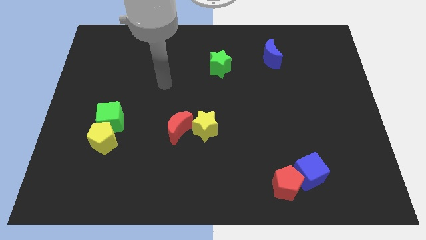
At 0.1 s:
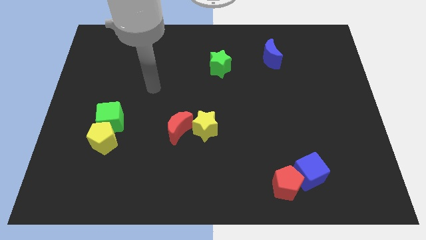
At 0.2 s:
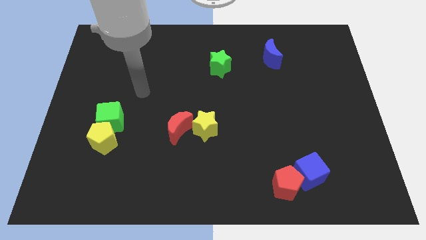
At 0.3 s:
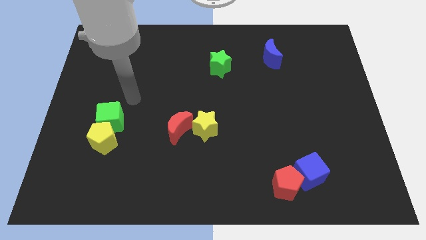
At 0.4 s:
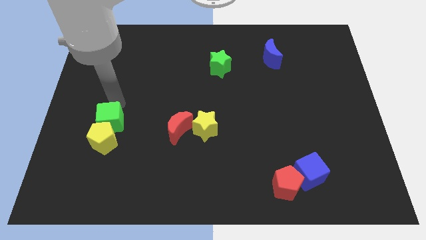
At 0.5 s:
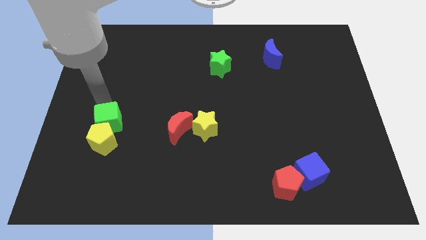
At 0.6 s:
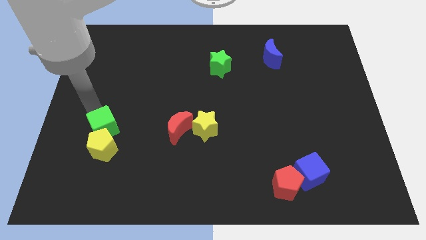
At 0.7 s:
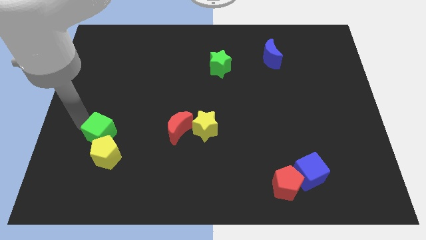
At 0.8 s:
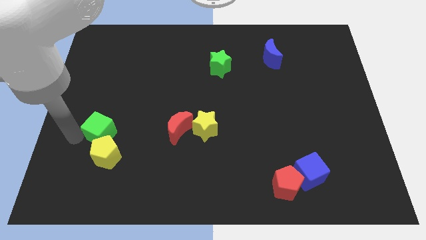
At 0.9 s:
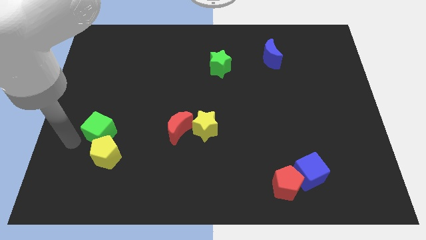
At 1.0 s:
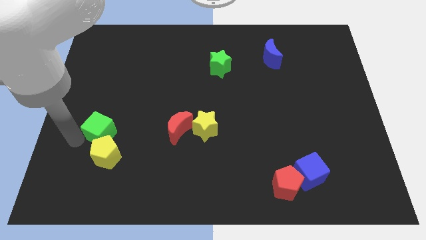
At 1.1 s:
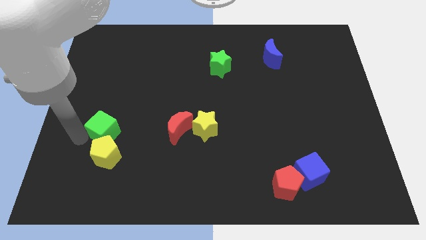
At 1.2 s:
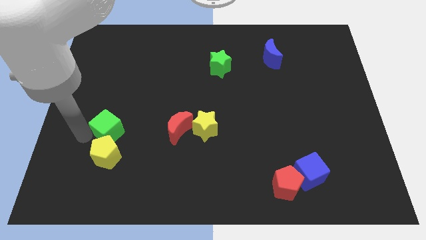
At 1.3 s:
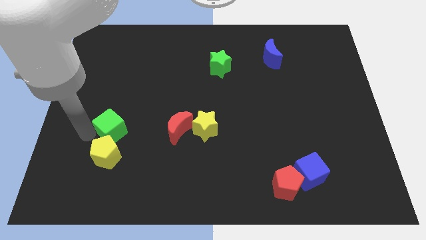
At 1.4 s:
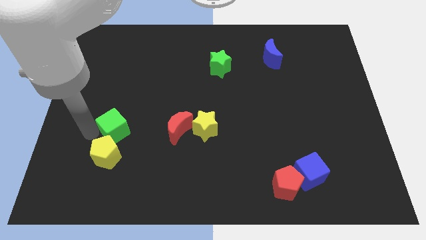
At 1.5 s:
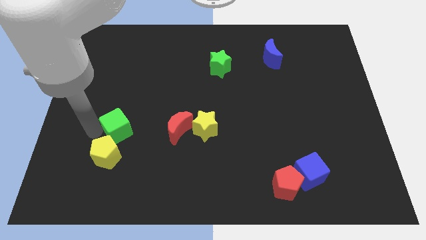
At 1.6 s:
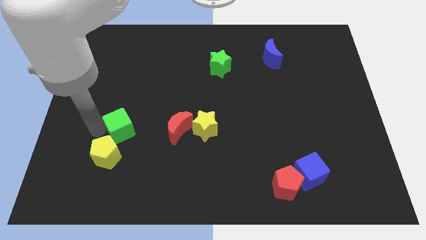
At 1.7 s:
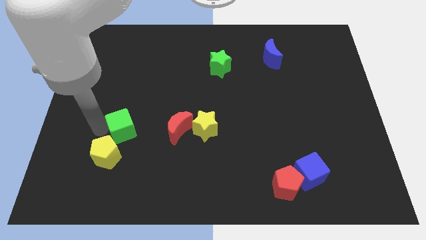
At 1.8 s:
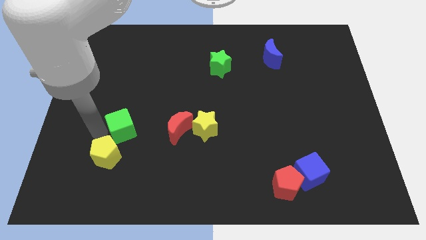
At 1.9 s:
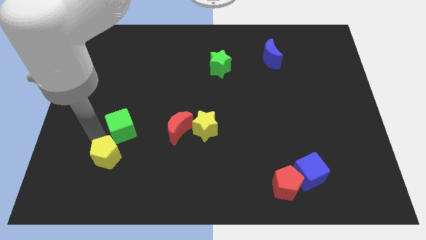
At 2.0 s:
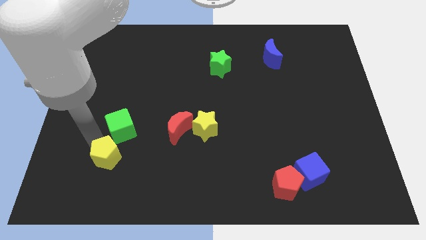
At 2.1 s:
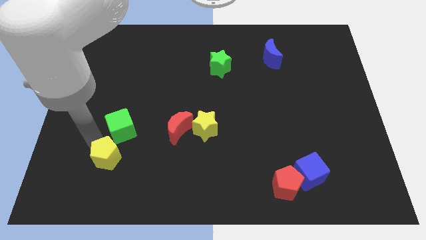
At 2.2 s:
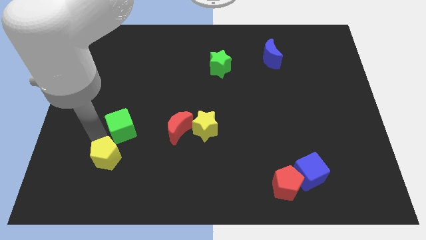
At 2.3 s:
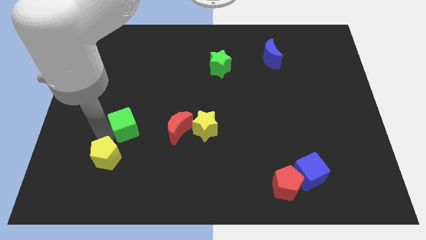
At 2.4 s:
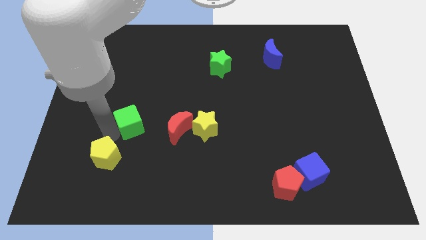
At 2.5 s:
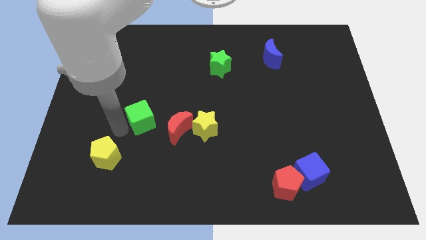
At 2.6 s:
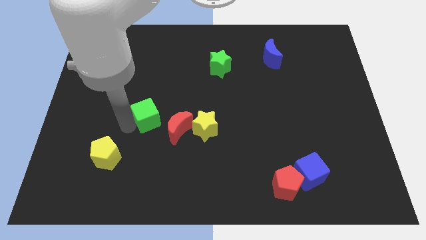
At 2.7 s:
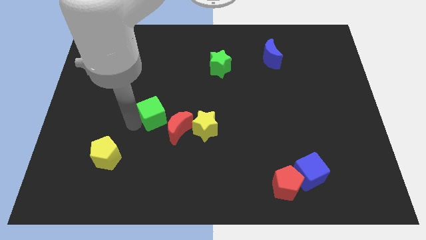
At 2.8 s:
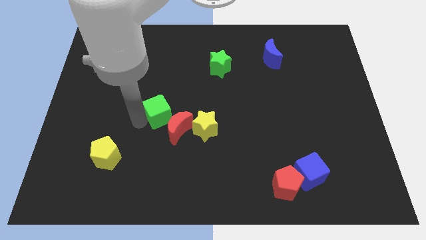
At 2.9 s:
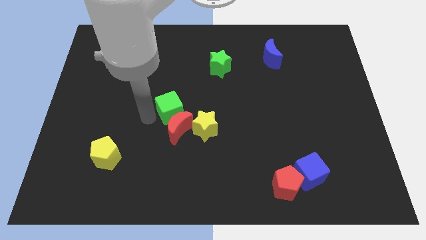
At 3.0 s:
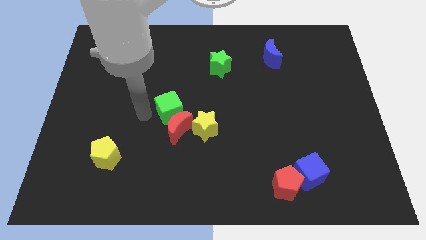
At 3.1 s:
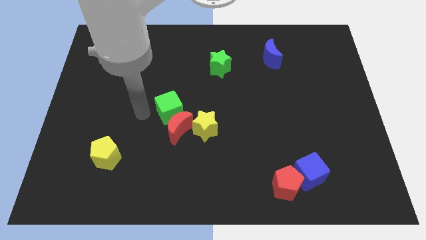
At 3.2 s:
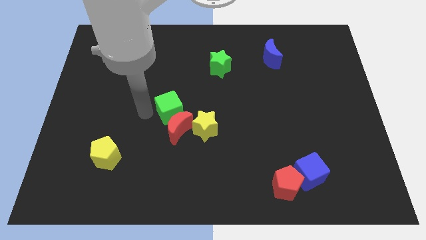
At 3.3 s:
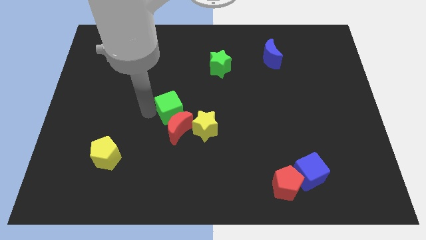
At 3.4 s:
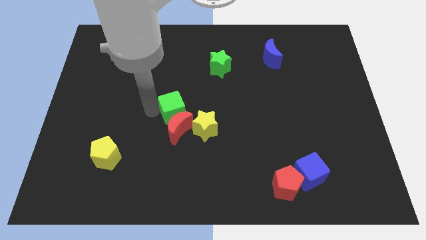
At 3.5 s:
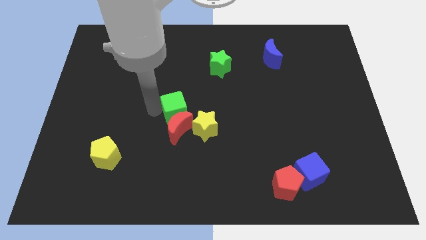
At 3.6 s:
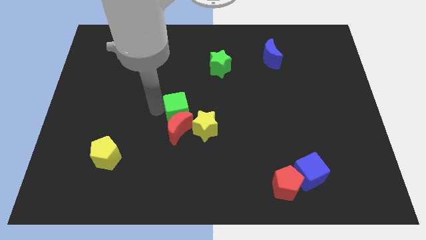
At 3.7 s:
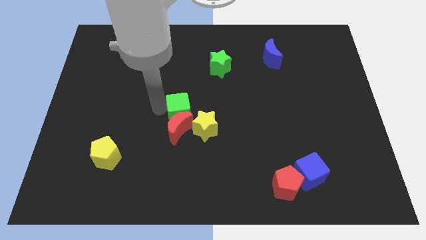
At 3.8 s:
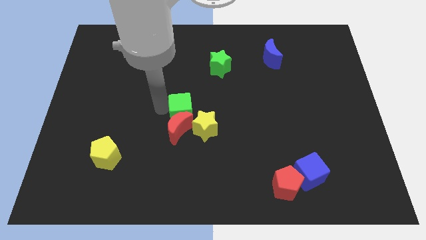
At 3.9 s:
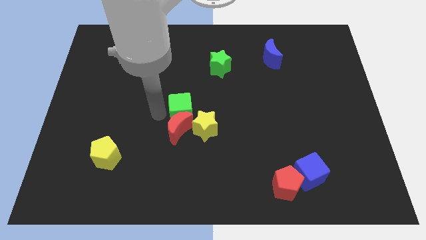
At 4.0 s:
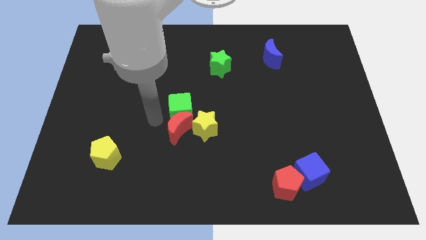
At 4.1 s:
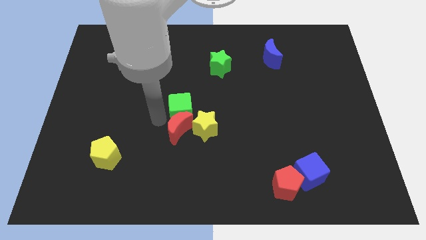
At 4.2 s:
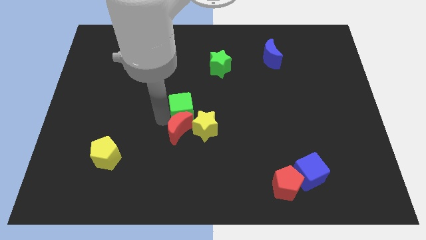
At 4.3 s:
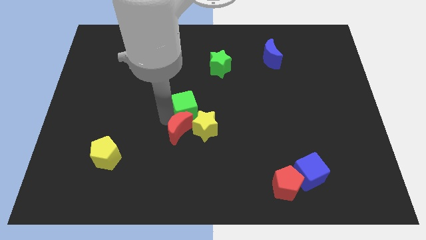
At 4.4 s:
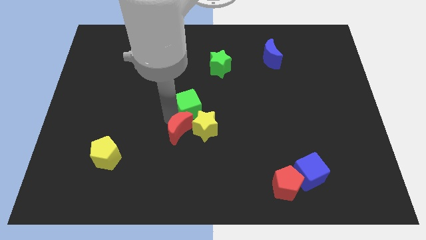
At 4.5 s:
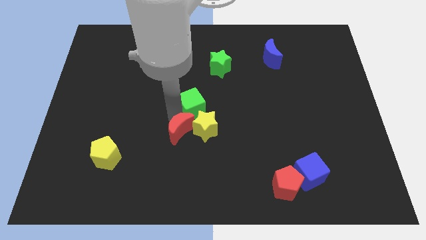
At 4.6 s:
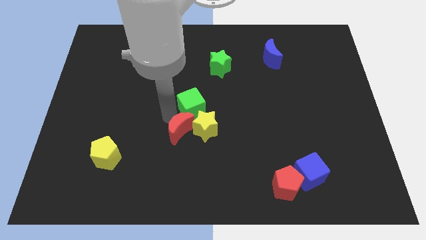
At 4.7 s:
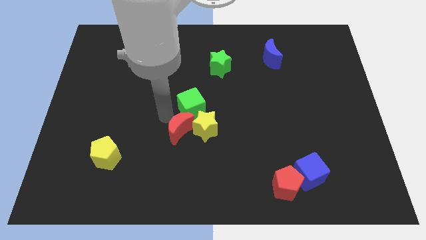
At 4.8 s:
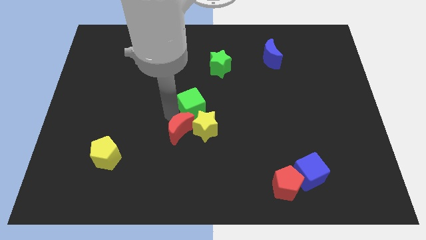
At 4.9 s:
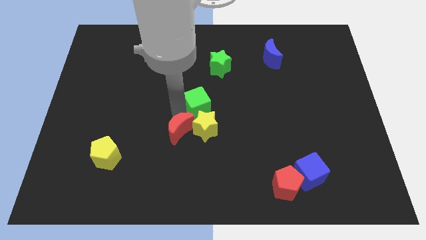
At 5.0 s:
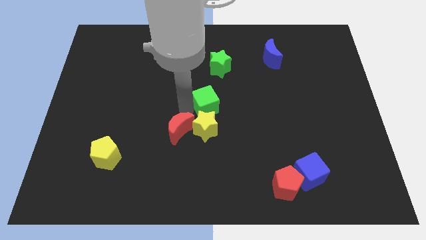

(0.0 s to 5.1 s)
push the green cube to the bottom side of the green star

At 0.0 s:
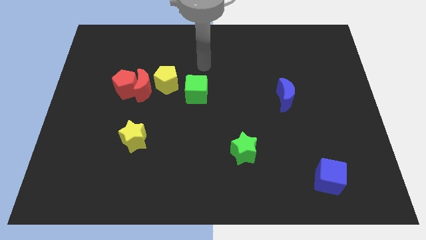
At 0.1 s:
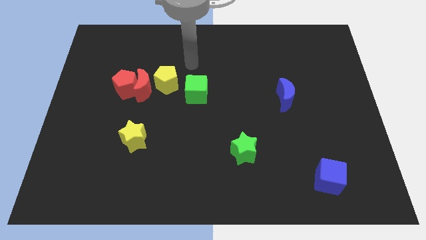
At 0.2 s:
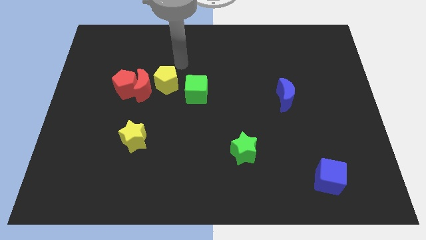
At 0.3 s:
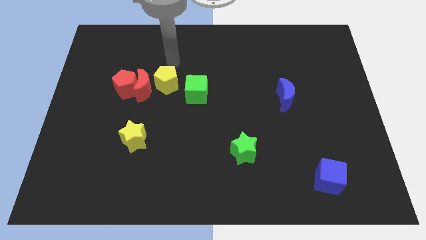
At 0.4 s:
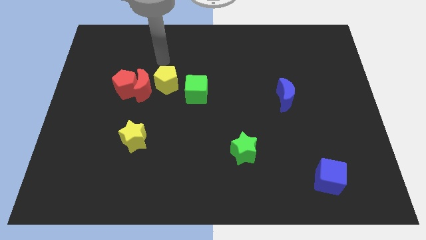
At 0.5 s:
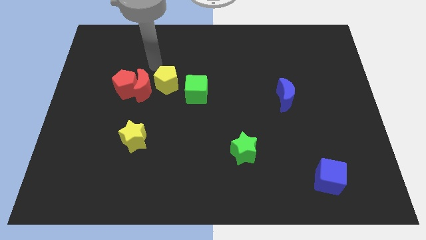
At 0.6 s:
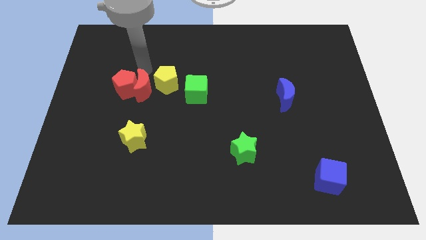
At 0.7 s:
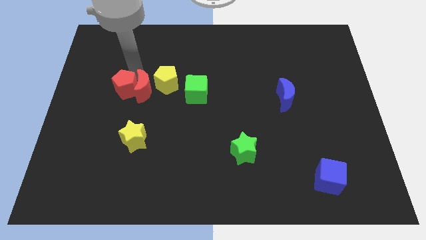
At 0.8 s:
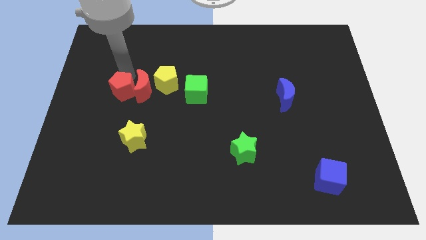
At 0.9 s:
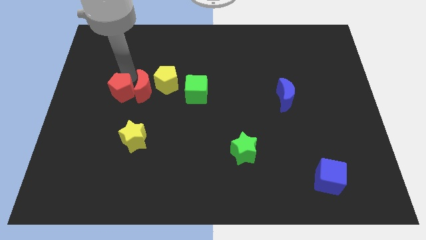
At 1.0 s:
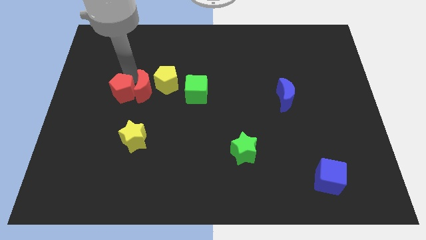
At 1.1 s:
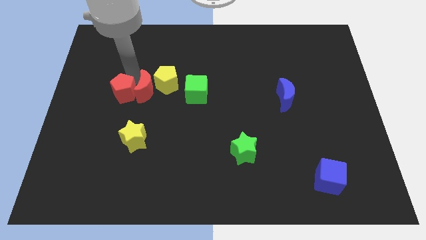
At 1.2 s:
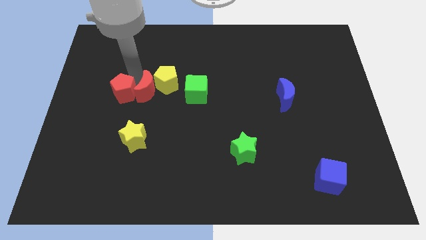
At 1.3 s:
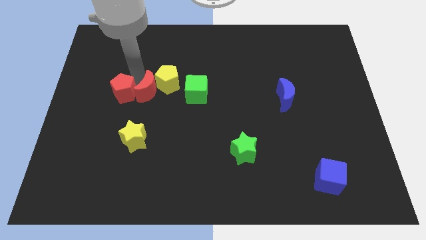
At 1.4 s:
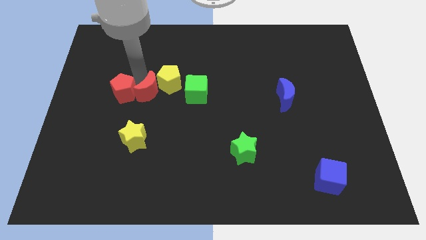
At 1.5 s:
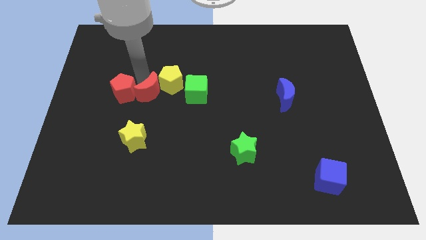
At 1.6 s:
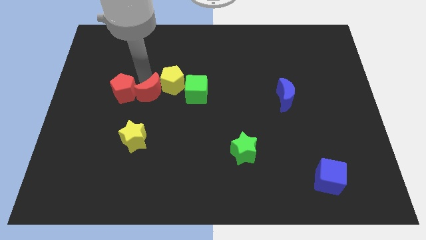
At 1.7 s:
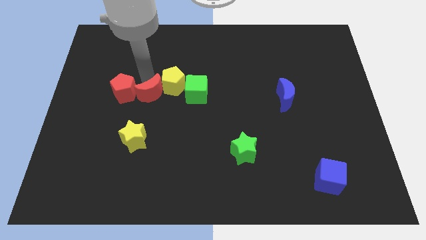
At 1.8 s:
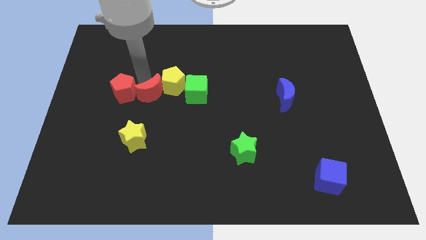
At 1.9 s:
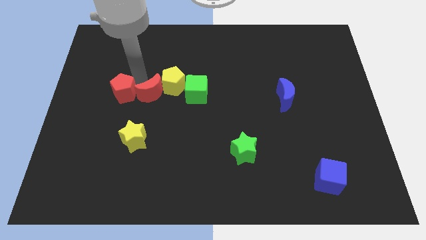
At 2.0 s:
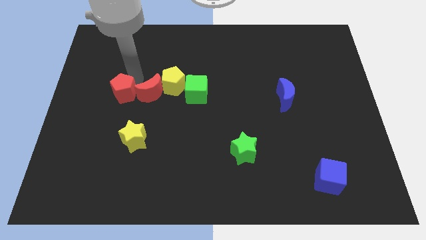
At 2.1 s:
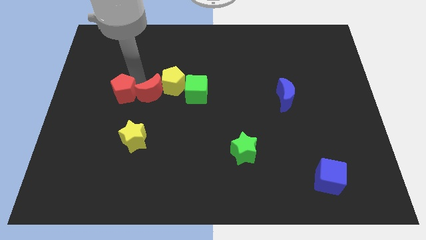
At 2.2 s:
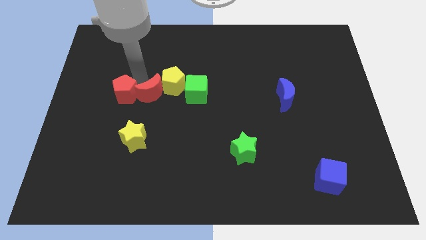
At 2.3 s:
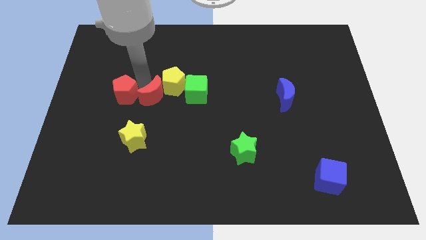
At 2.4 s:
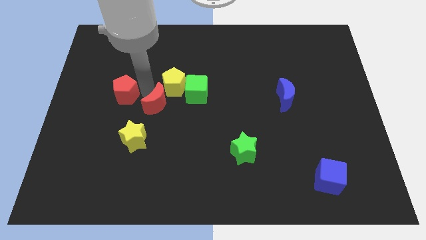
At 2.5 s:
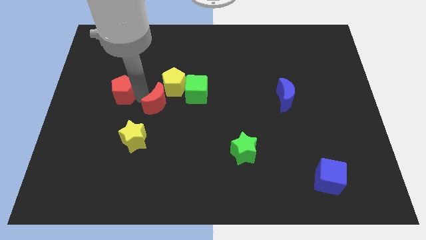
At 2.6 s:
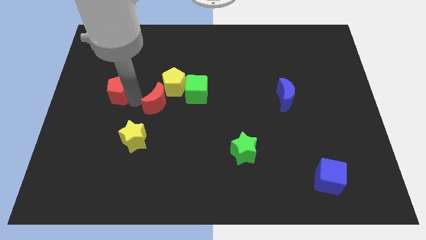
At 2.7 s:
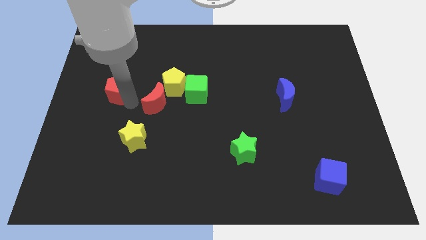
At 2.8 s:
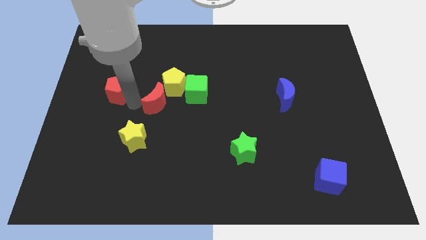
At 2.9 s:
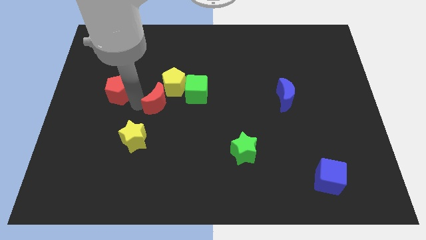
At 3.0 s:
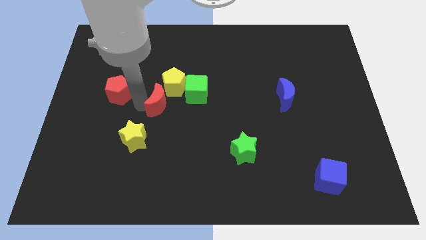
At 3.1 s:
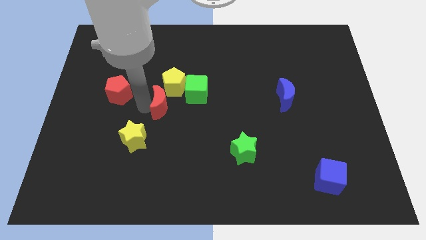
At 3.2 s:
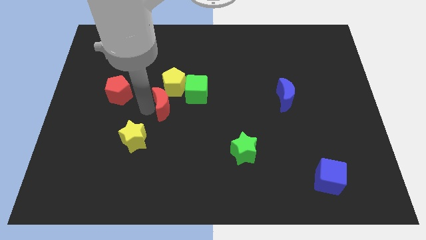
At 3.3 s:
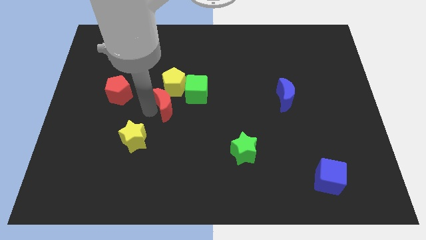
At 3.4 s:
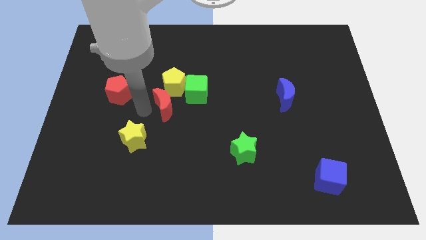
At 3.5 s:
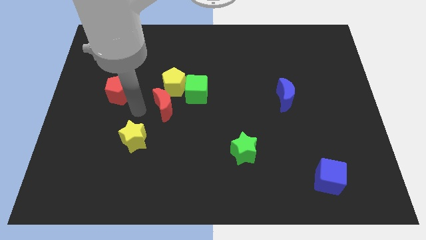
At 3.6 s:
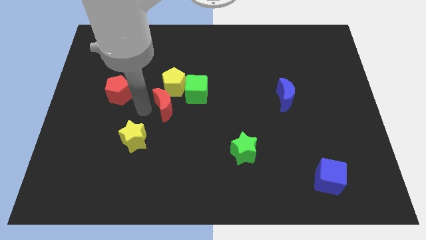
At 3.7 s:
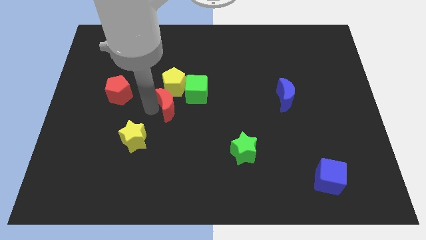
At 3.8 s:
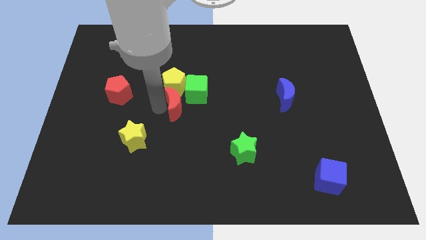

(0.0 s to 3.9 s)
move the red moon diagonally down and to the right of the yellow pentagon
